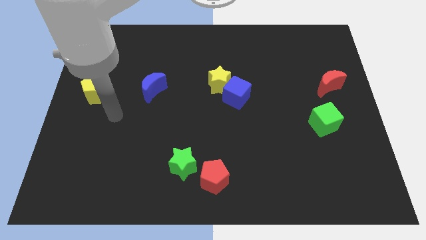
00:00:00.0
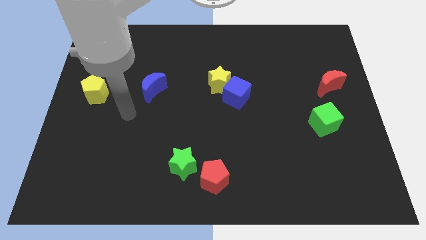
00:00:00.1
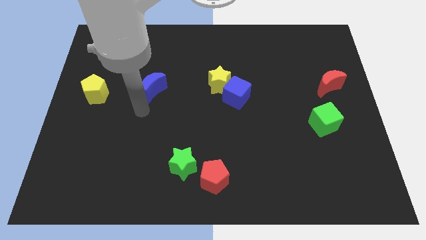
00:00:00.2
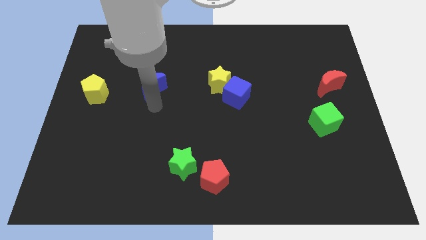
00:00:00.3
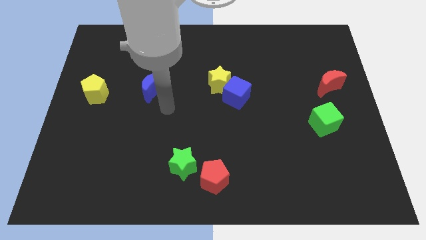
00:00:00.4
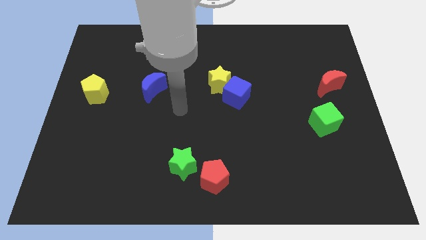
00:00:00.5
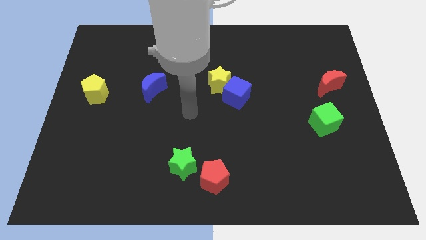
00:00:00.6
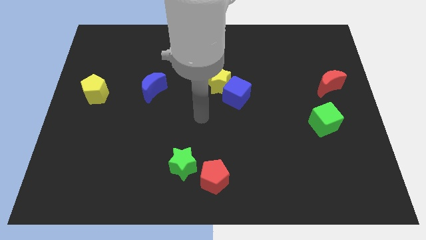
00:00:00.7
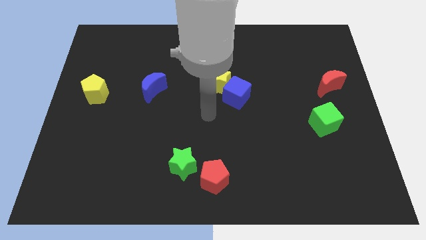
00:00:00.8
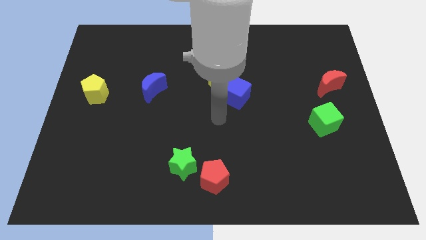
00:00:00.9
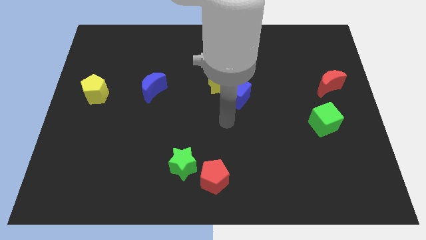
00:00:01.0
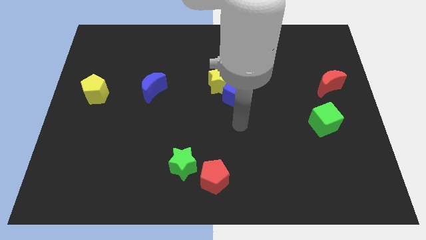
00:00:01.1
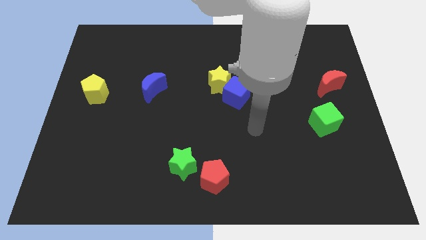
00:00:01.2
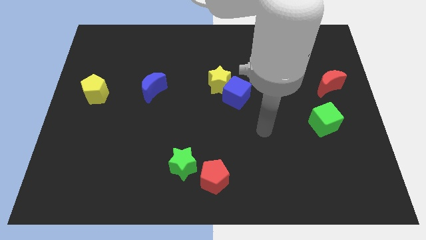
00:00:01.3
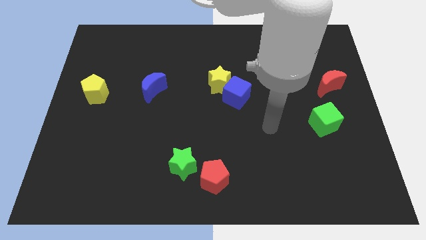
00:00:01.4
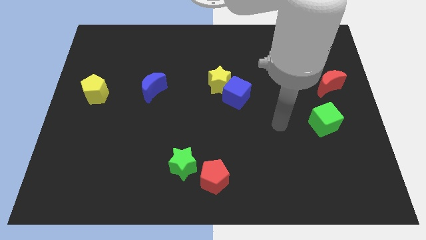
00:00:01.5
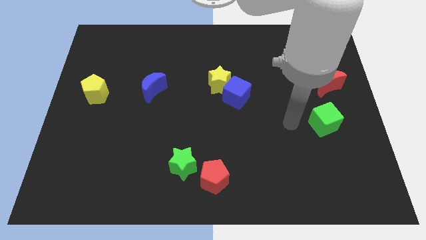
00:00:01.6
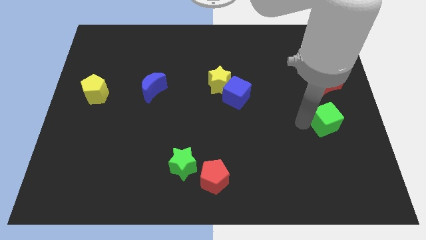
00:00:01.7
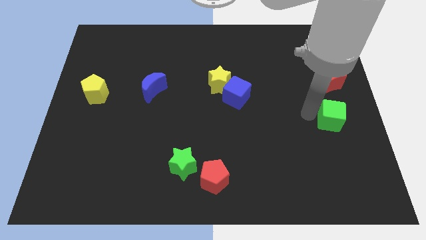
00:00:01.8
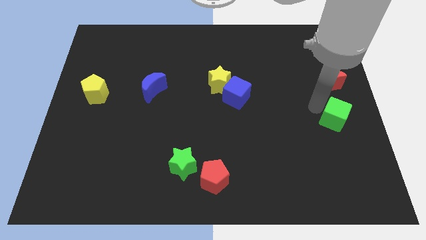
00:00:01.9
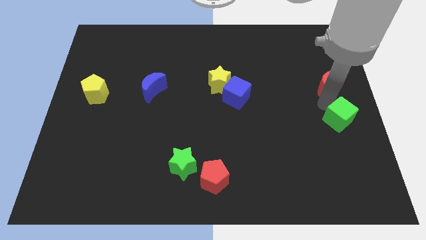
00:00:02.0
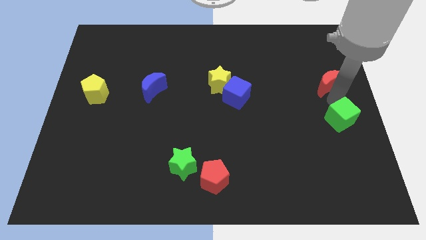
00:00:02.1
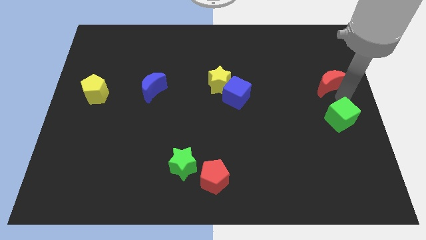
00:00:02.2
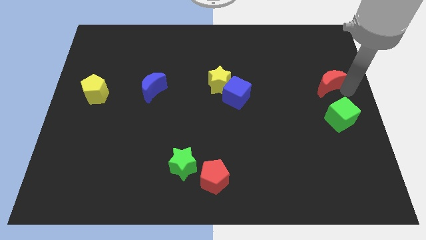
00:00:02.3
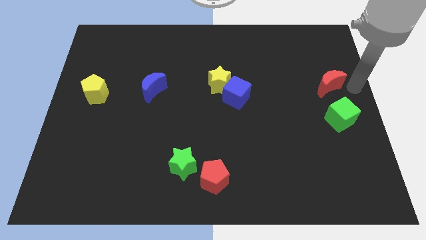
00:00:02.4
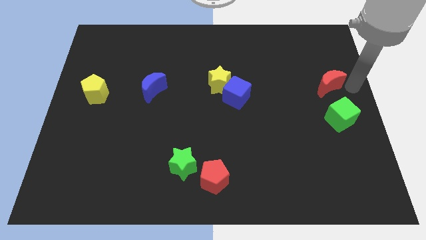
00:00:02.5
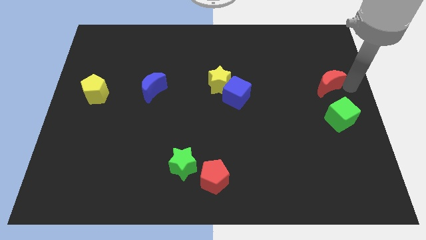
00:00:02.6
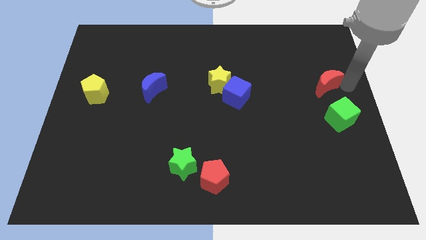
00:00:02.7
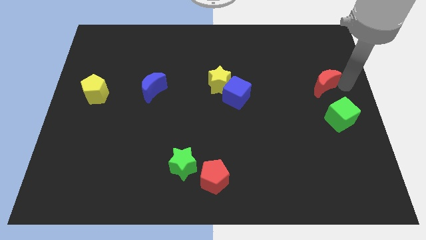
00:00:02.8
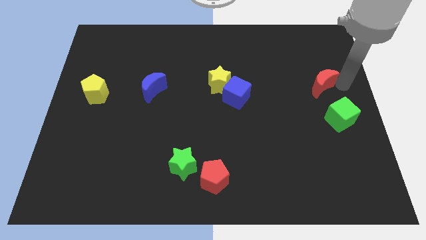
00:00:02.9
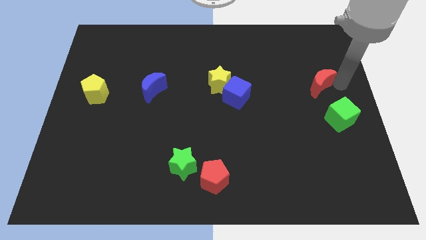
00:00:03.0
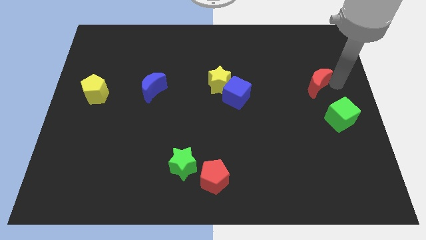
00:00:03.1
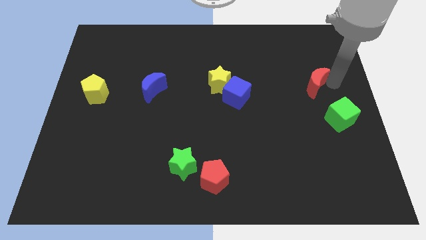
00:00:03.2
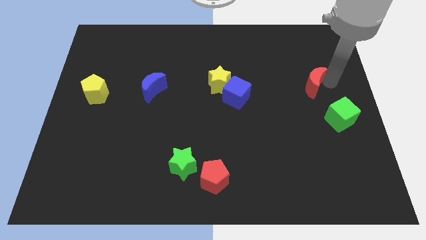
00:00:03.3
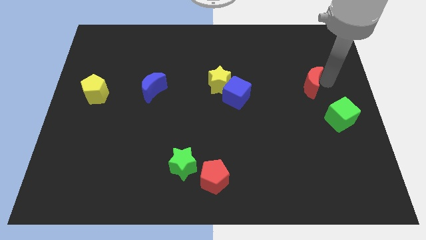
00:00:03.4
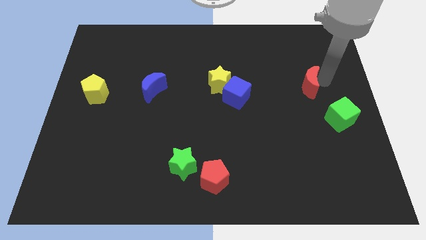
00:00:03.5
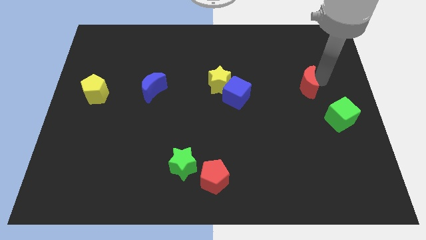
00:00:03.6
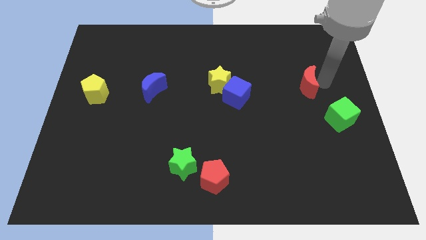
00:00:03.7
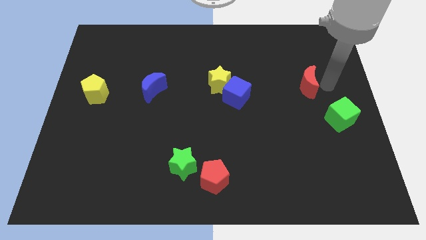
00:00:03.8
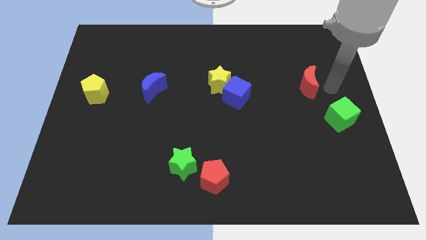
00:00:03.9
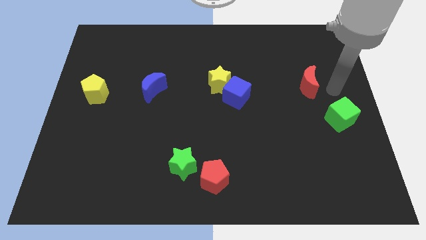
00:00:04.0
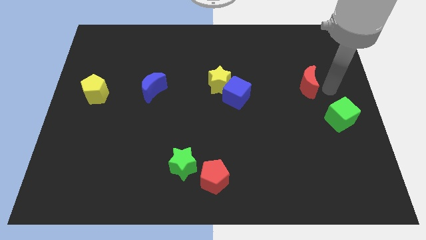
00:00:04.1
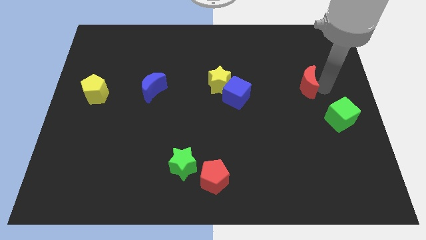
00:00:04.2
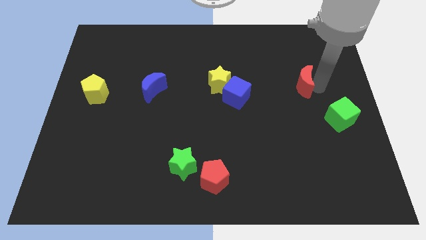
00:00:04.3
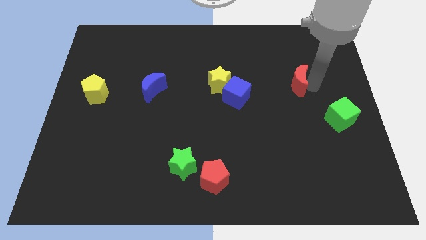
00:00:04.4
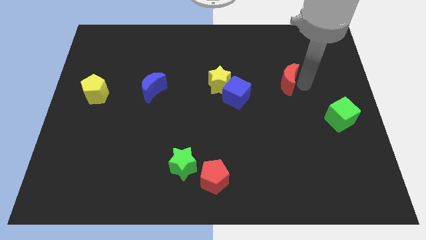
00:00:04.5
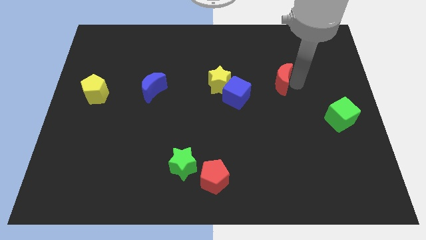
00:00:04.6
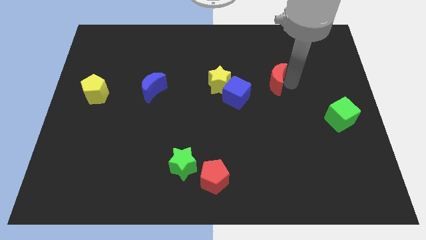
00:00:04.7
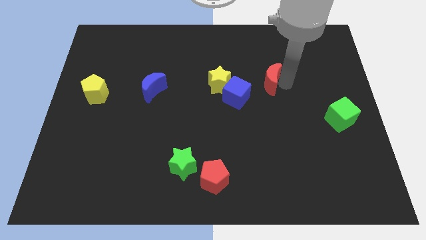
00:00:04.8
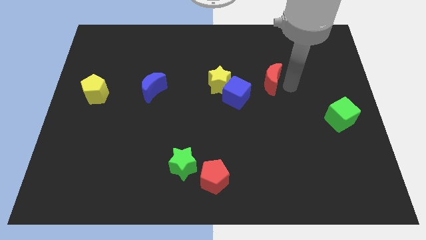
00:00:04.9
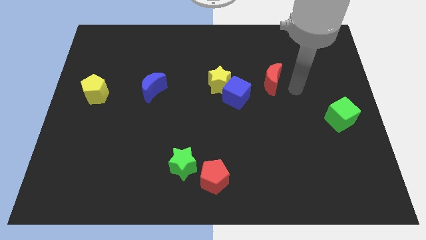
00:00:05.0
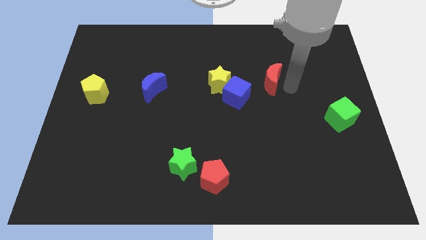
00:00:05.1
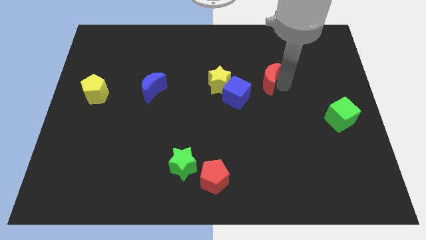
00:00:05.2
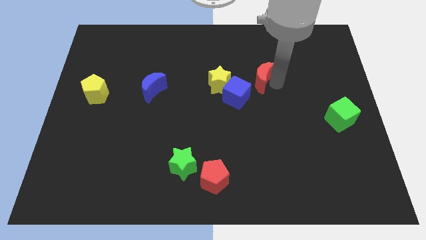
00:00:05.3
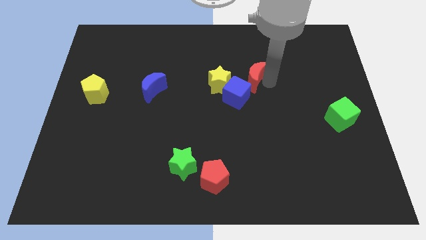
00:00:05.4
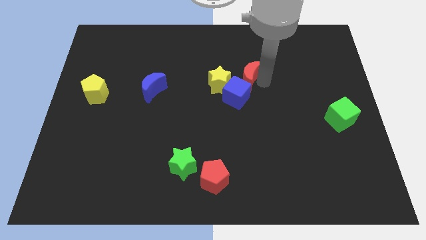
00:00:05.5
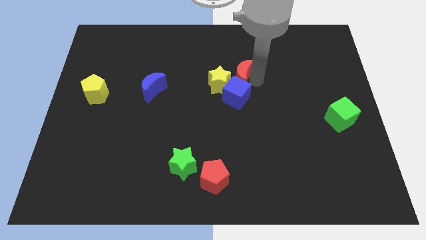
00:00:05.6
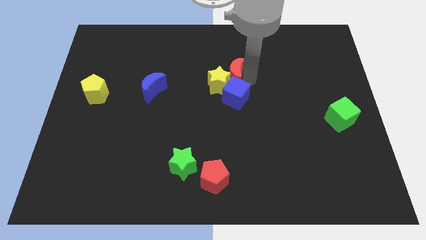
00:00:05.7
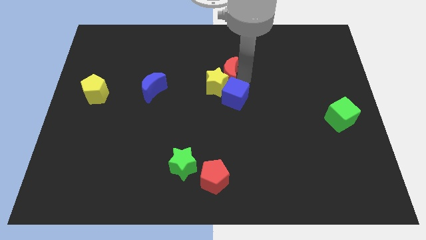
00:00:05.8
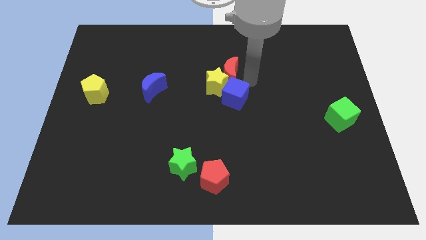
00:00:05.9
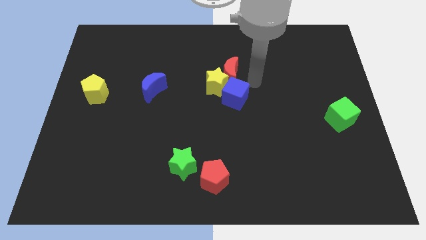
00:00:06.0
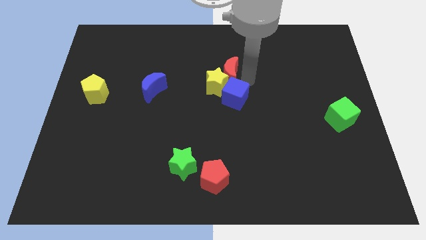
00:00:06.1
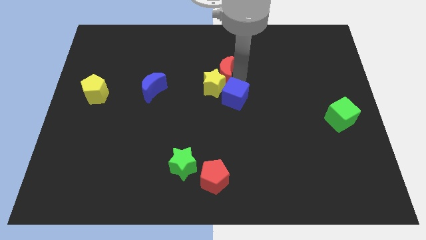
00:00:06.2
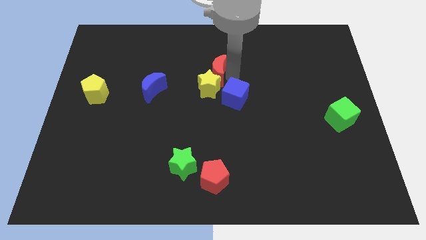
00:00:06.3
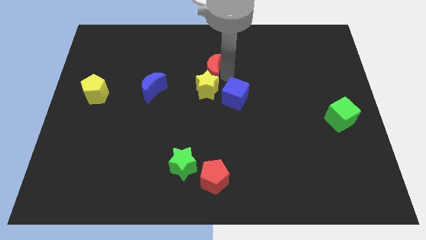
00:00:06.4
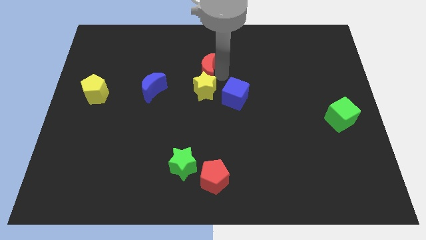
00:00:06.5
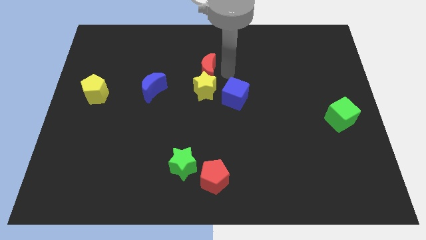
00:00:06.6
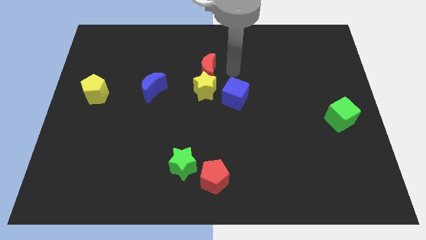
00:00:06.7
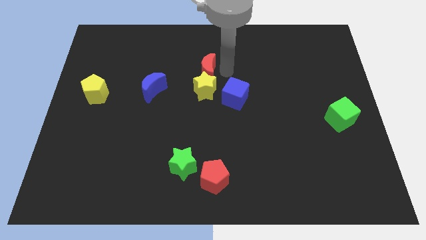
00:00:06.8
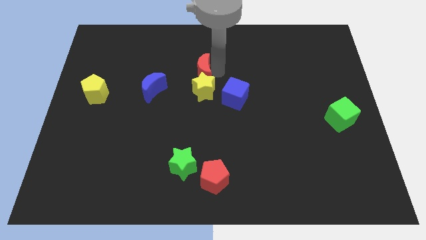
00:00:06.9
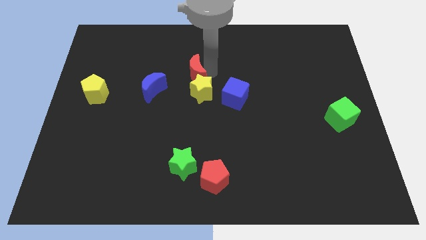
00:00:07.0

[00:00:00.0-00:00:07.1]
move the red moon diagonally up and to the right of the blue moon

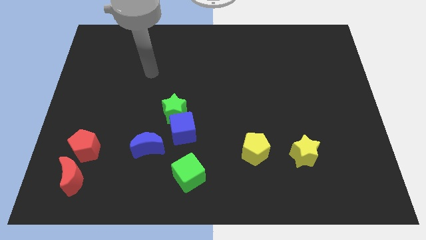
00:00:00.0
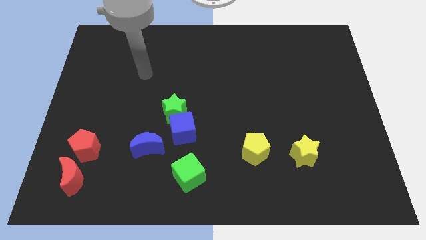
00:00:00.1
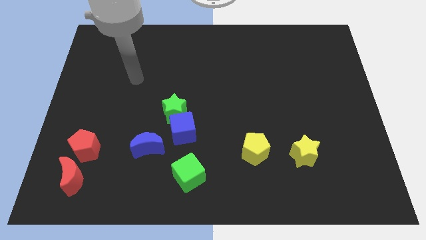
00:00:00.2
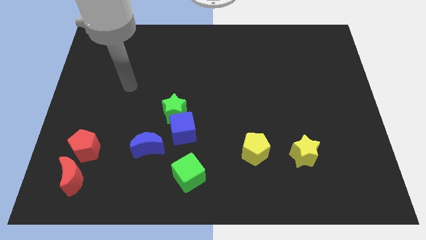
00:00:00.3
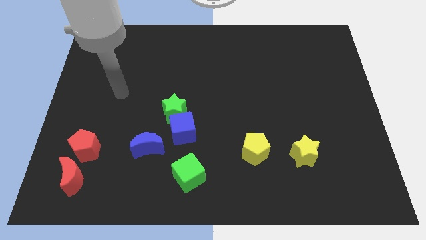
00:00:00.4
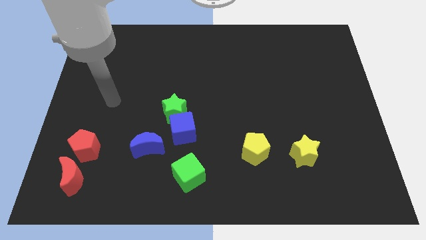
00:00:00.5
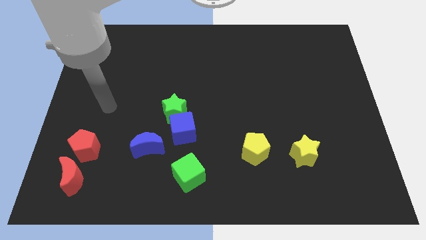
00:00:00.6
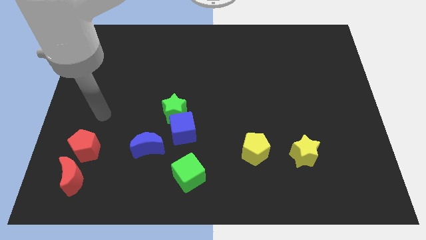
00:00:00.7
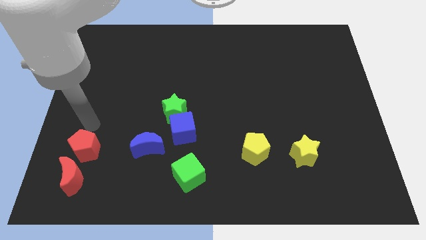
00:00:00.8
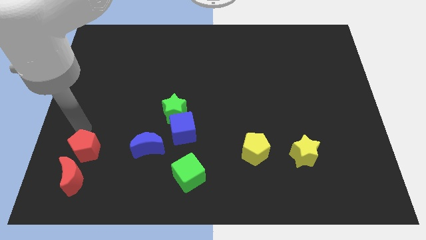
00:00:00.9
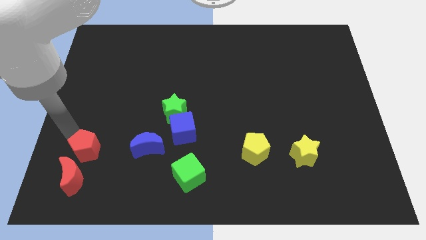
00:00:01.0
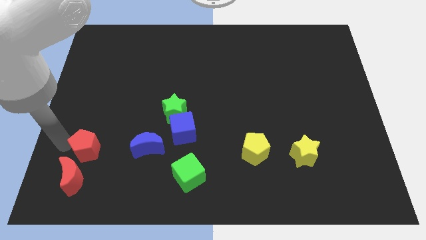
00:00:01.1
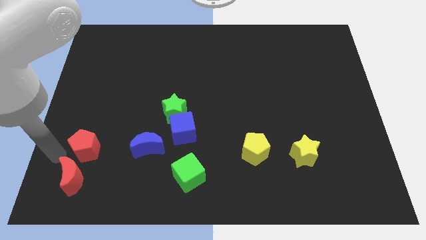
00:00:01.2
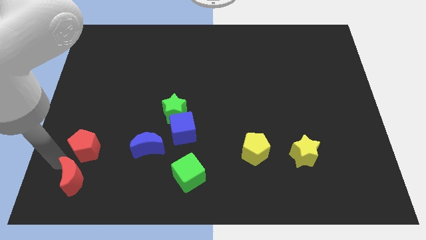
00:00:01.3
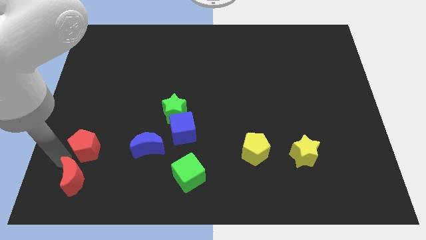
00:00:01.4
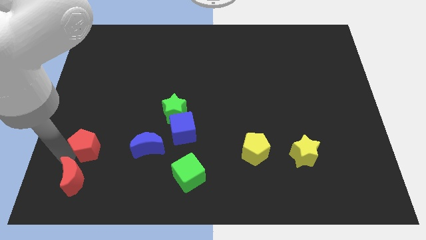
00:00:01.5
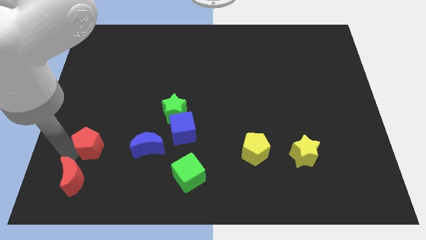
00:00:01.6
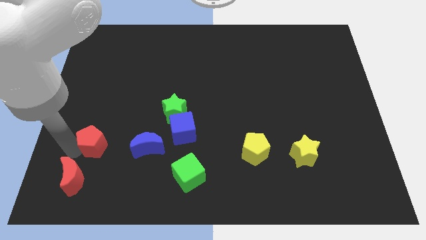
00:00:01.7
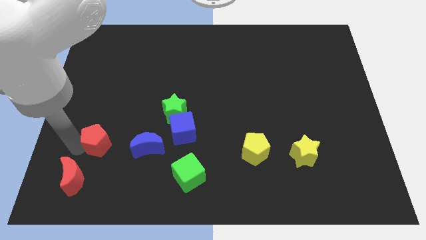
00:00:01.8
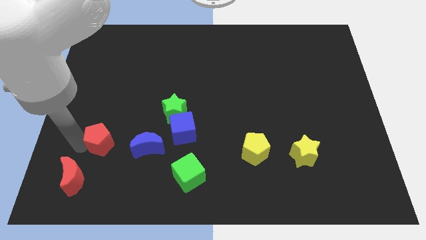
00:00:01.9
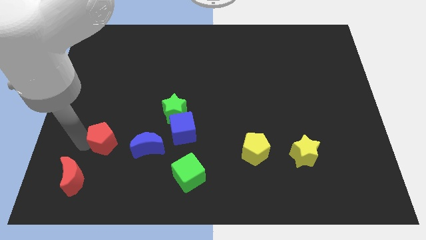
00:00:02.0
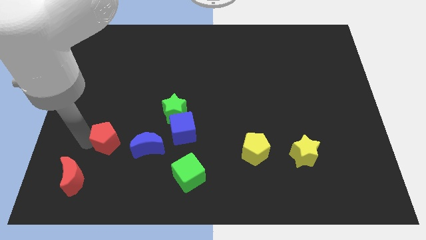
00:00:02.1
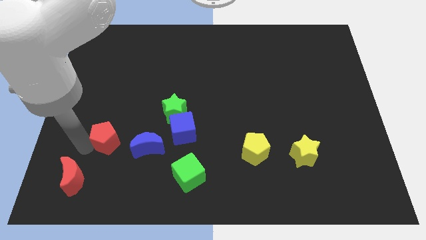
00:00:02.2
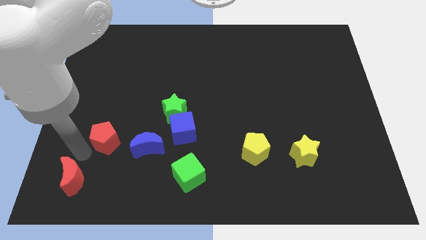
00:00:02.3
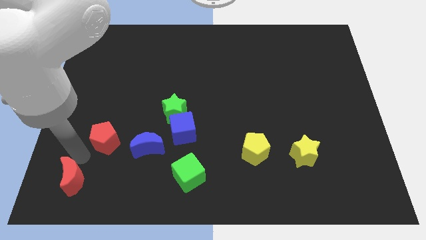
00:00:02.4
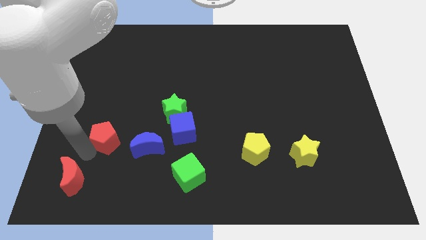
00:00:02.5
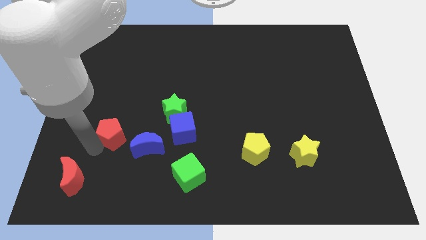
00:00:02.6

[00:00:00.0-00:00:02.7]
slide the red pentagon to the top left of the blue moon
